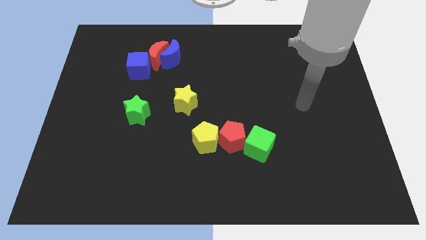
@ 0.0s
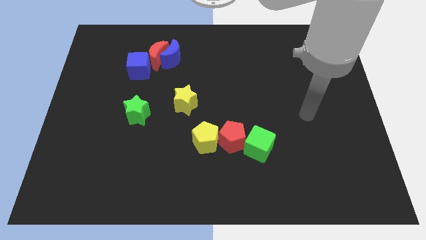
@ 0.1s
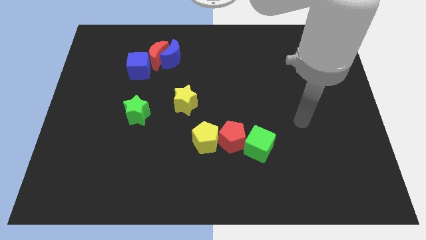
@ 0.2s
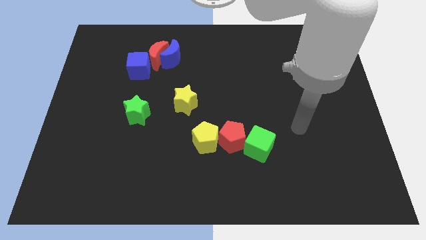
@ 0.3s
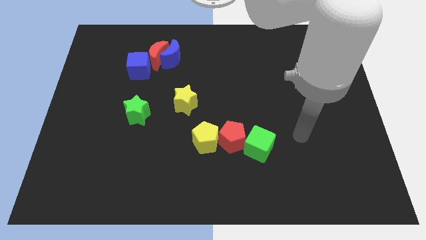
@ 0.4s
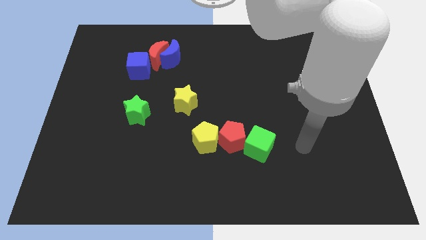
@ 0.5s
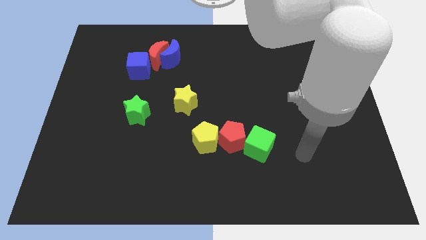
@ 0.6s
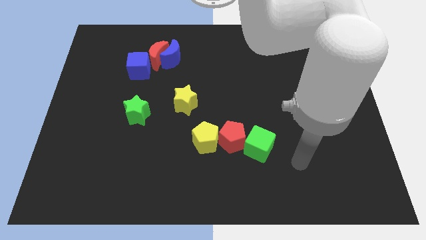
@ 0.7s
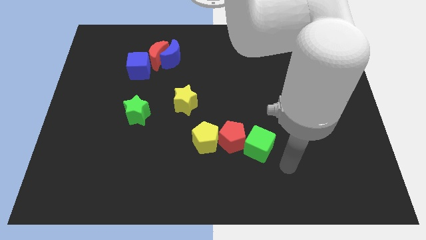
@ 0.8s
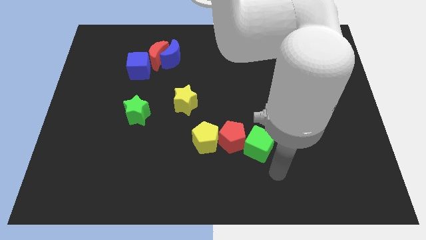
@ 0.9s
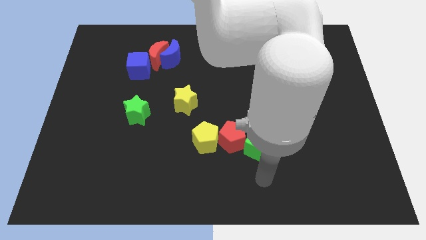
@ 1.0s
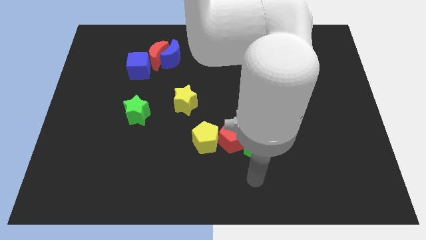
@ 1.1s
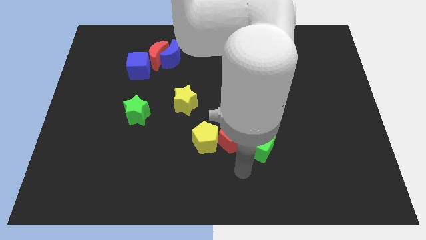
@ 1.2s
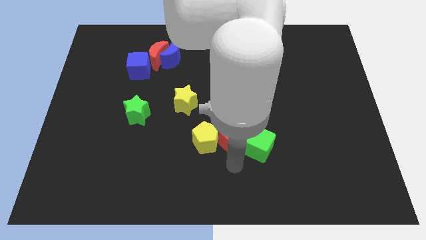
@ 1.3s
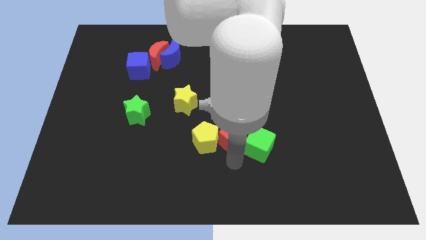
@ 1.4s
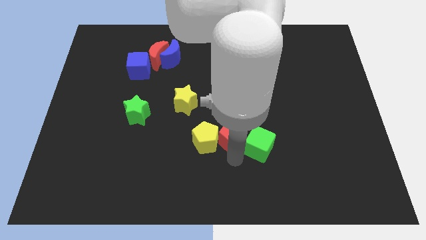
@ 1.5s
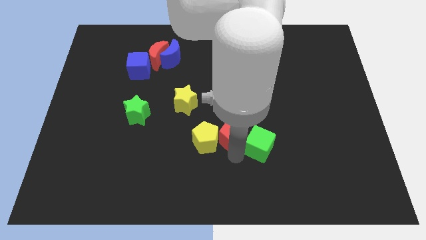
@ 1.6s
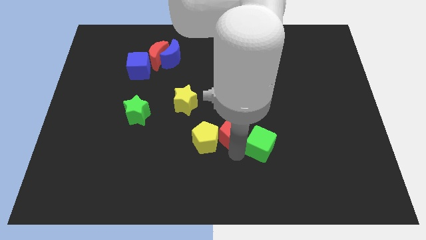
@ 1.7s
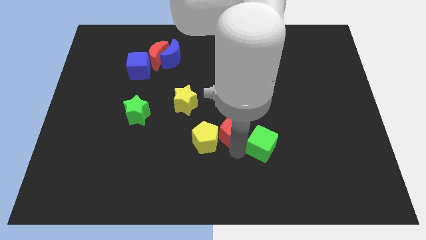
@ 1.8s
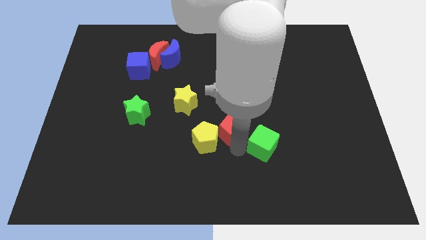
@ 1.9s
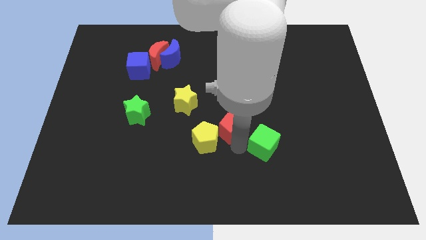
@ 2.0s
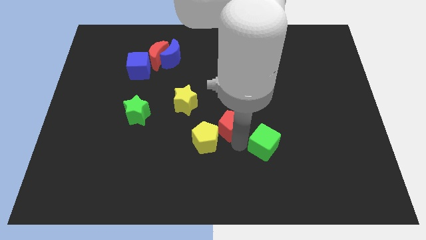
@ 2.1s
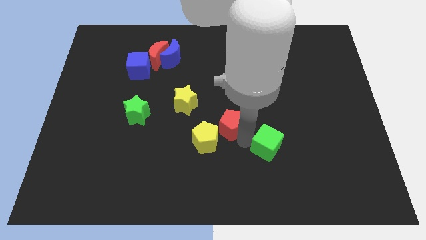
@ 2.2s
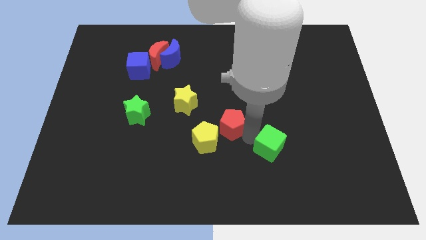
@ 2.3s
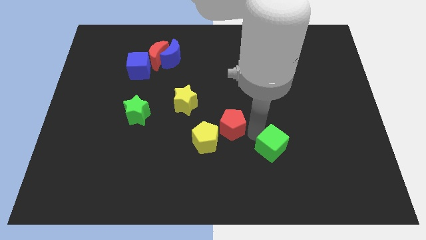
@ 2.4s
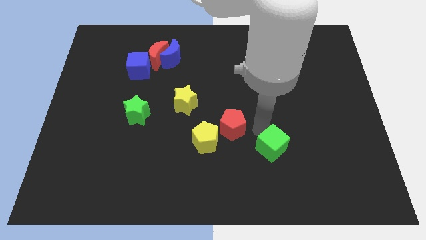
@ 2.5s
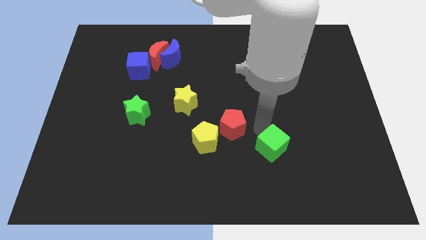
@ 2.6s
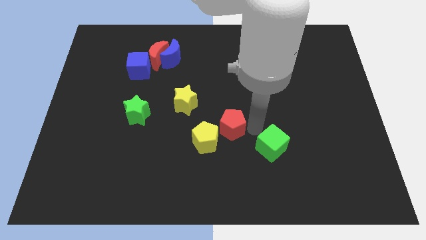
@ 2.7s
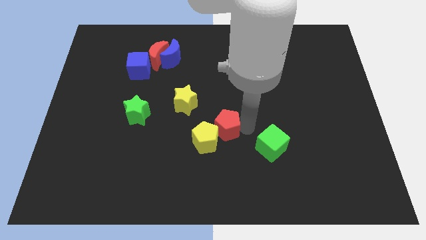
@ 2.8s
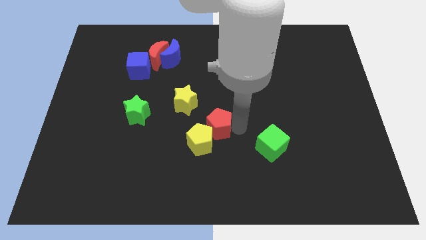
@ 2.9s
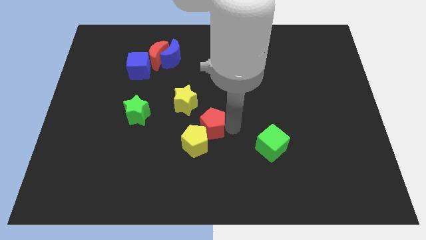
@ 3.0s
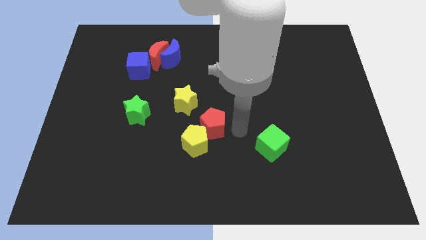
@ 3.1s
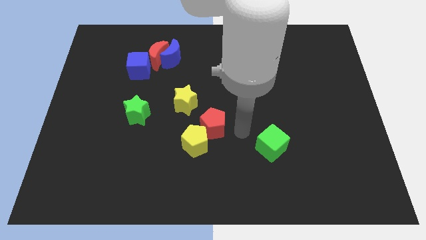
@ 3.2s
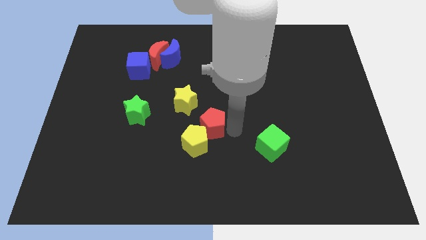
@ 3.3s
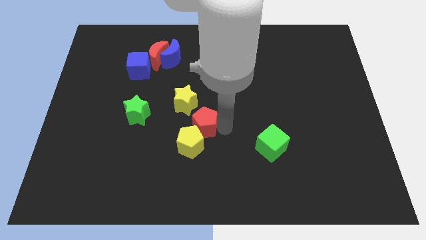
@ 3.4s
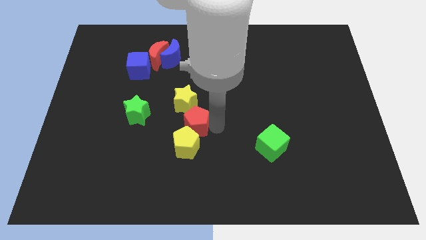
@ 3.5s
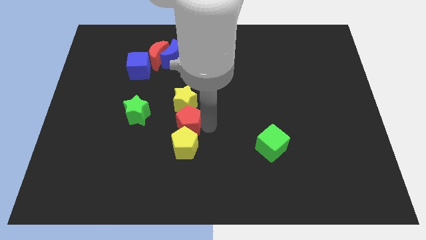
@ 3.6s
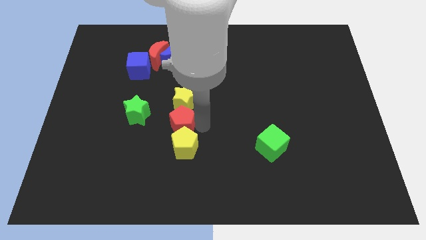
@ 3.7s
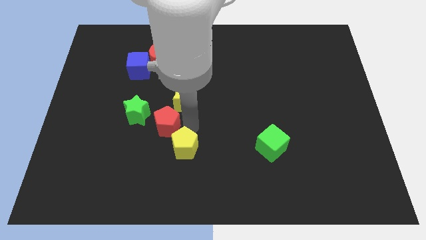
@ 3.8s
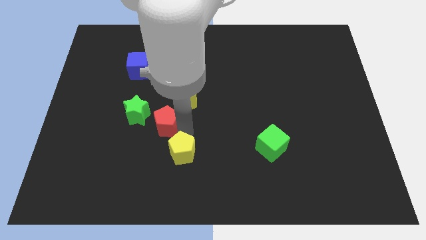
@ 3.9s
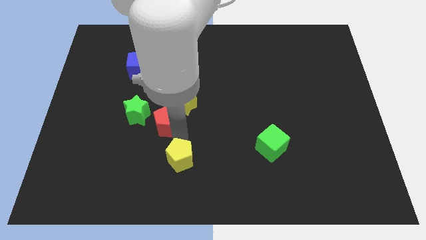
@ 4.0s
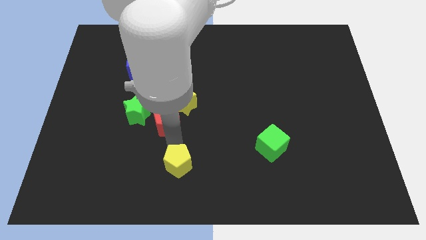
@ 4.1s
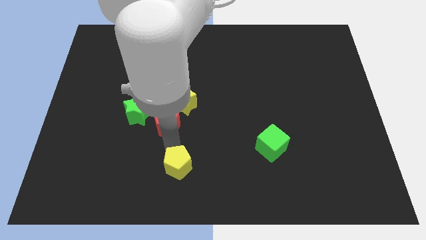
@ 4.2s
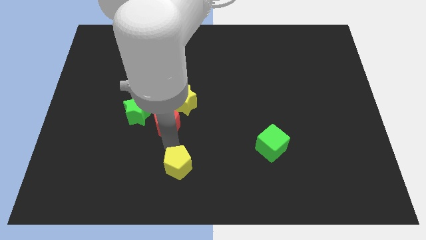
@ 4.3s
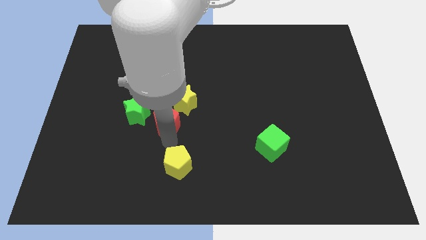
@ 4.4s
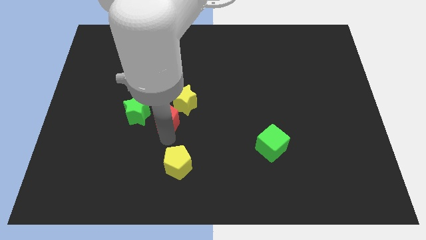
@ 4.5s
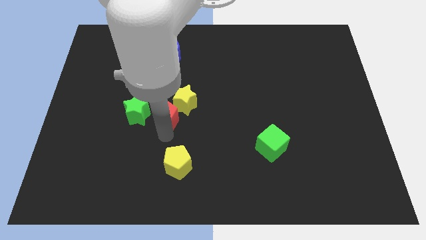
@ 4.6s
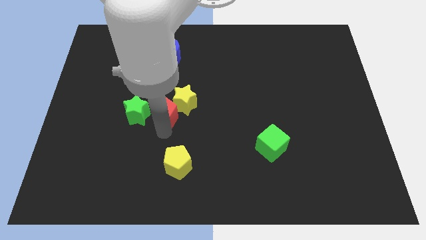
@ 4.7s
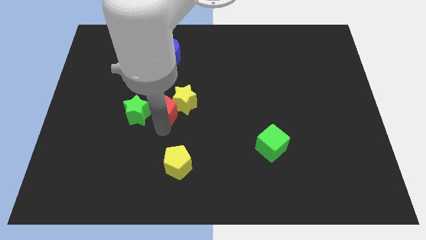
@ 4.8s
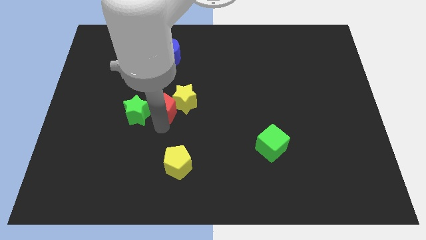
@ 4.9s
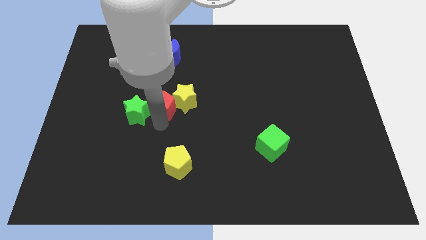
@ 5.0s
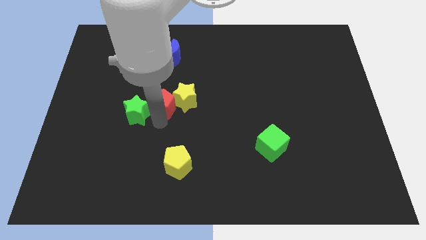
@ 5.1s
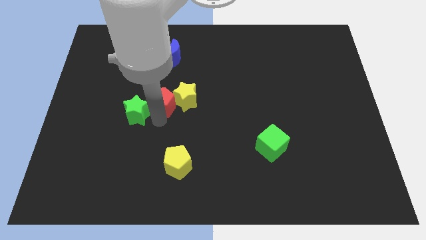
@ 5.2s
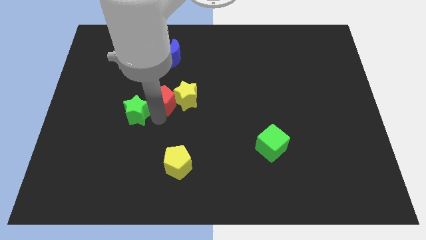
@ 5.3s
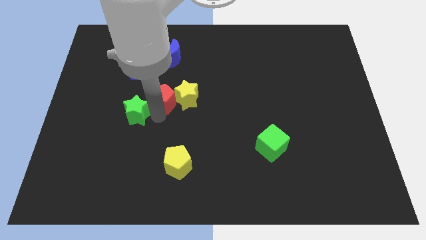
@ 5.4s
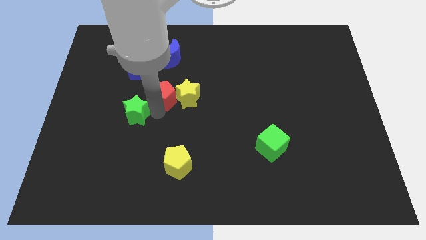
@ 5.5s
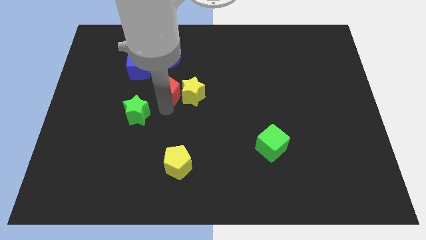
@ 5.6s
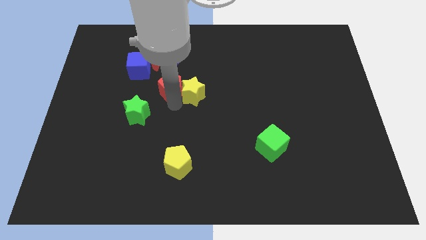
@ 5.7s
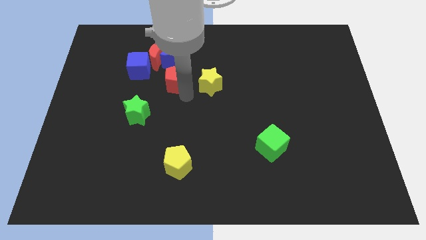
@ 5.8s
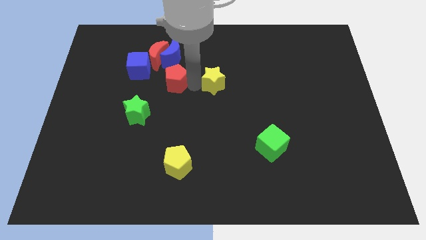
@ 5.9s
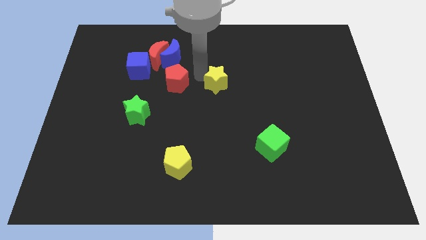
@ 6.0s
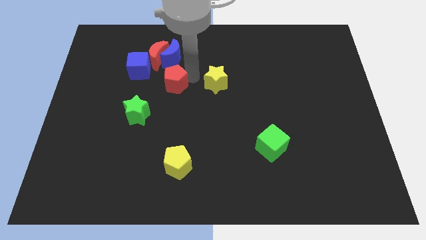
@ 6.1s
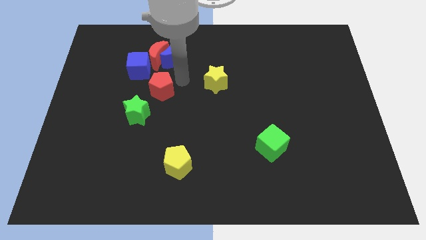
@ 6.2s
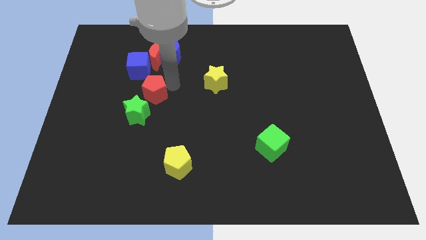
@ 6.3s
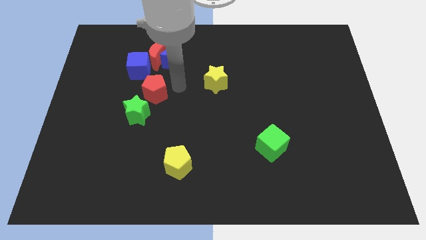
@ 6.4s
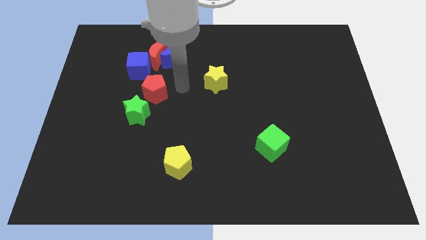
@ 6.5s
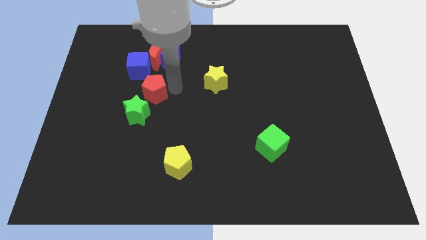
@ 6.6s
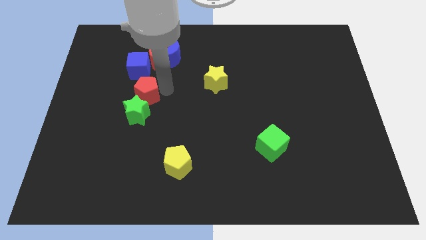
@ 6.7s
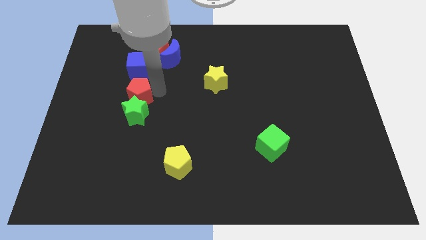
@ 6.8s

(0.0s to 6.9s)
put the red pentagon diagonally up and to the left of the green star
